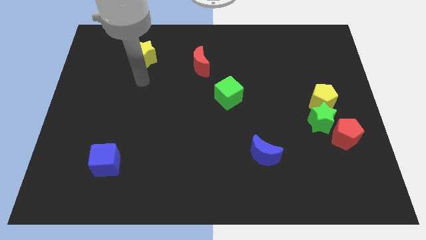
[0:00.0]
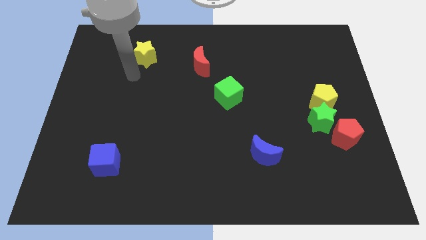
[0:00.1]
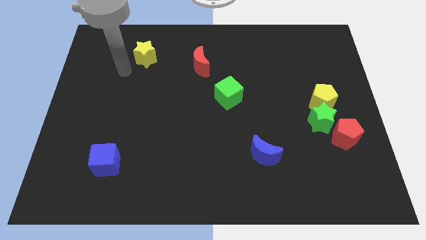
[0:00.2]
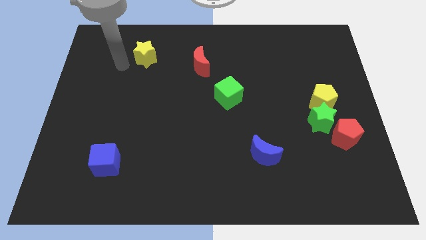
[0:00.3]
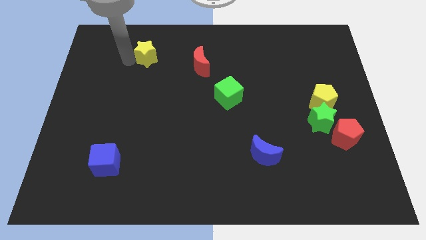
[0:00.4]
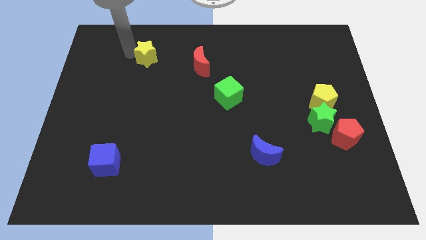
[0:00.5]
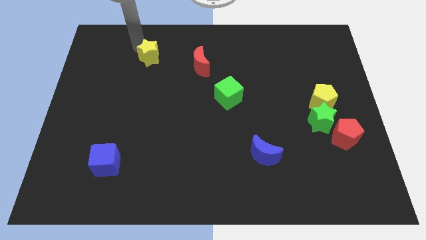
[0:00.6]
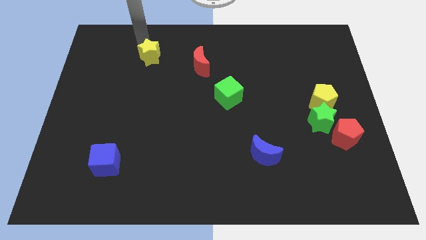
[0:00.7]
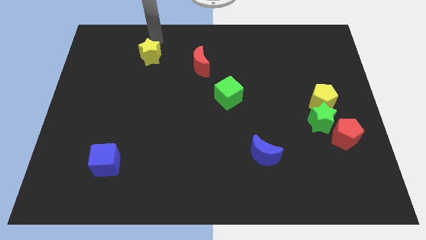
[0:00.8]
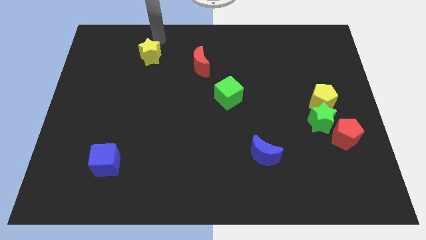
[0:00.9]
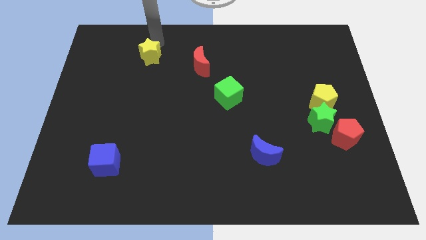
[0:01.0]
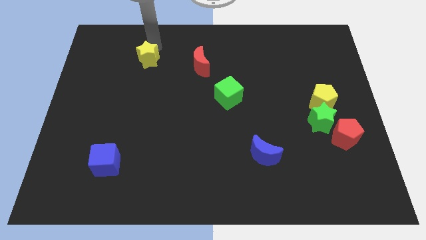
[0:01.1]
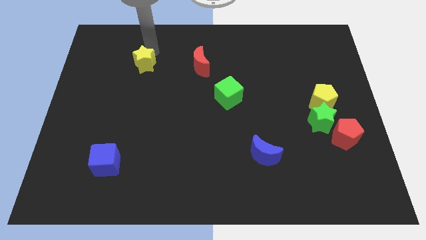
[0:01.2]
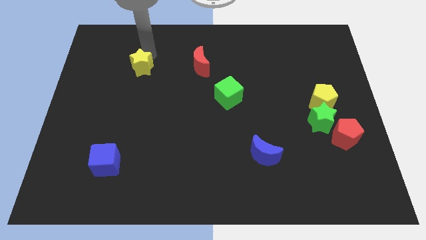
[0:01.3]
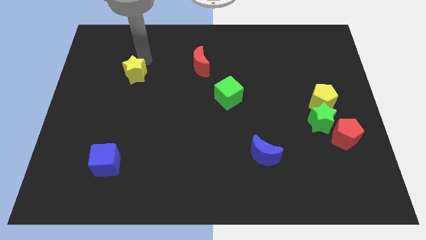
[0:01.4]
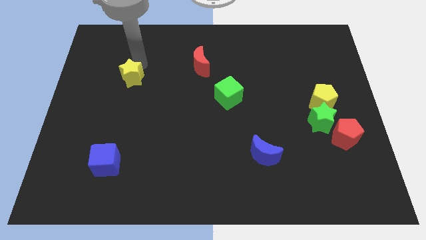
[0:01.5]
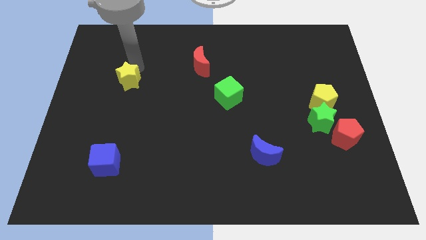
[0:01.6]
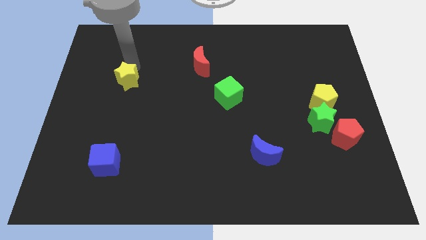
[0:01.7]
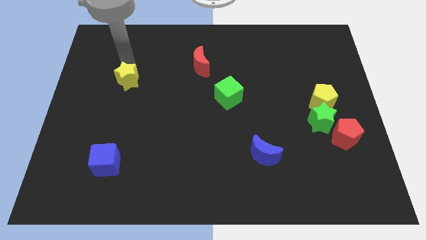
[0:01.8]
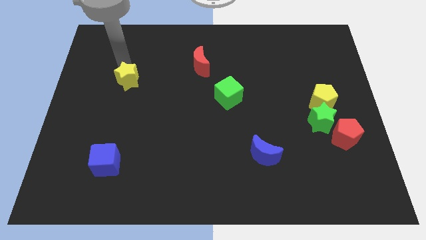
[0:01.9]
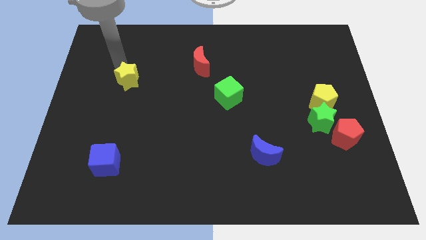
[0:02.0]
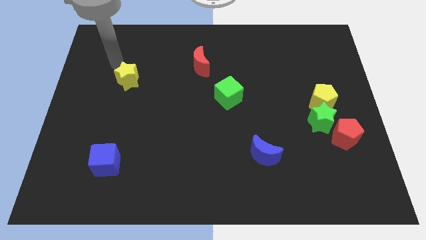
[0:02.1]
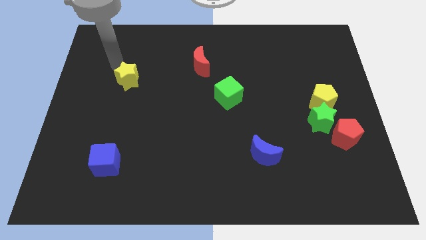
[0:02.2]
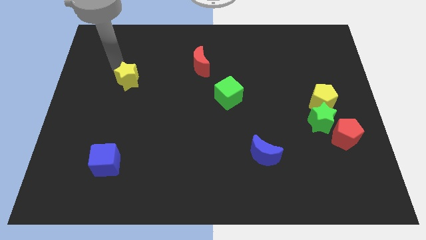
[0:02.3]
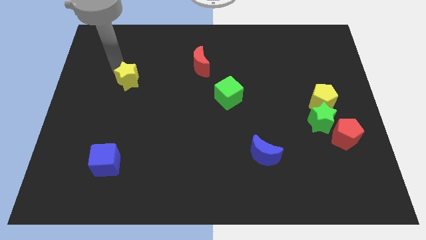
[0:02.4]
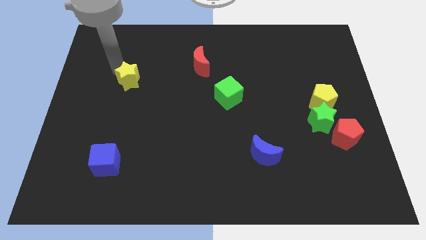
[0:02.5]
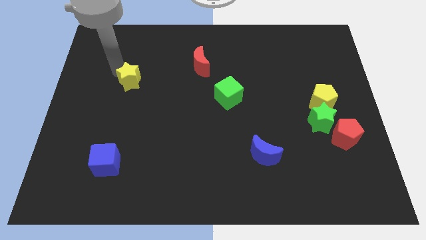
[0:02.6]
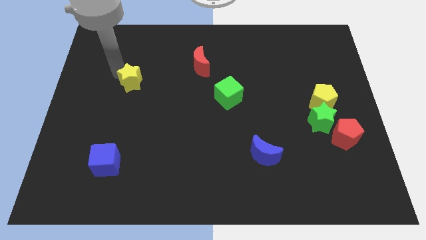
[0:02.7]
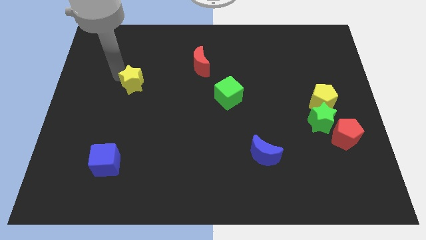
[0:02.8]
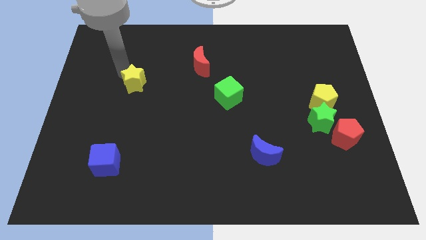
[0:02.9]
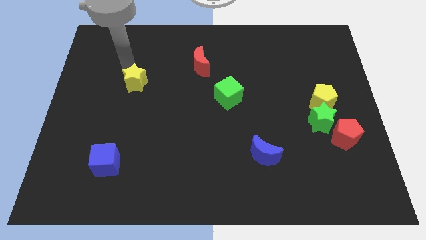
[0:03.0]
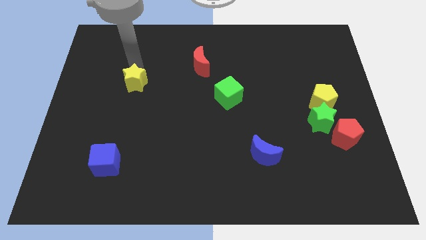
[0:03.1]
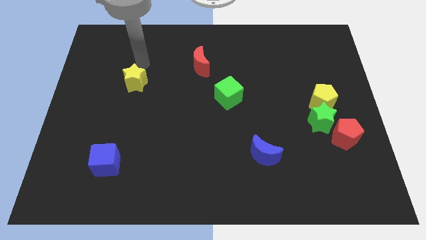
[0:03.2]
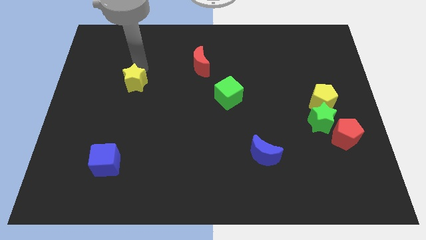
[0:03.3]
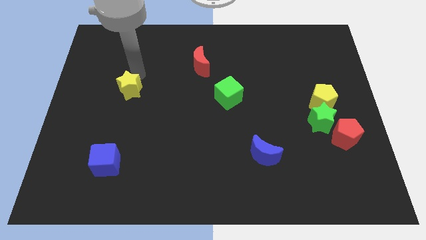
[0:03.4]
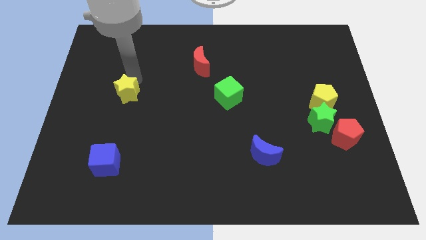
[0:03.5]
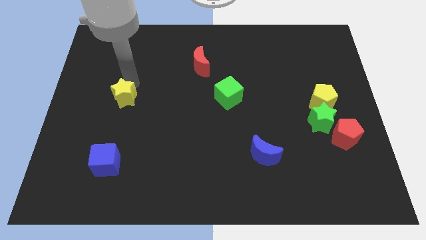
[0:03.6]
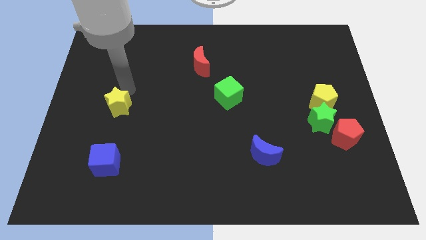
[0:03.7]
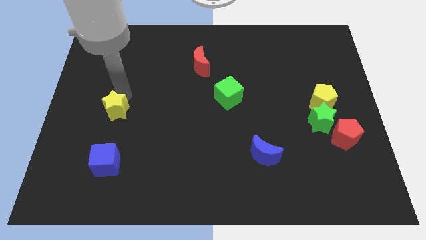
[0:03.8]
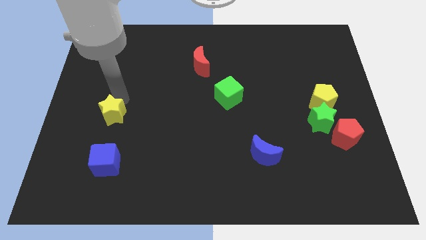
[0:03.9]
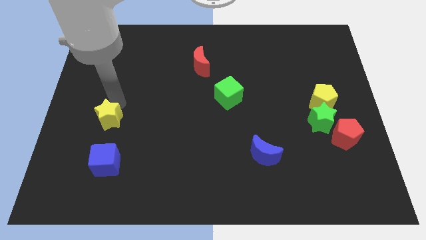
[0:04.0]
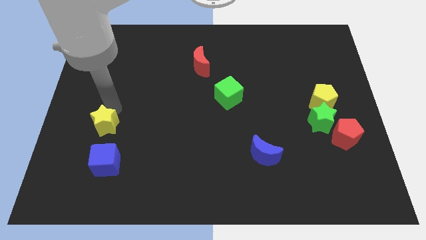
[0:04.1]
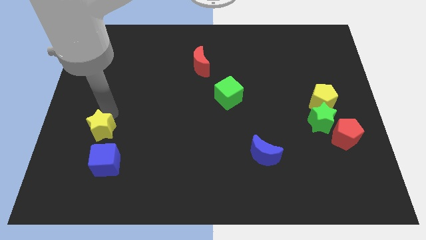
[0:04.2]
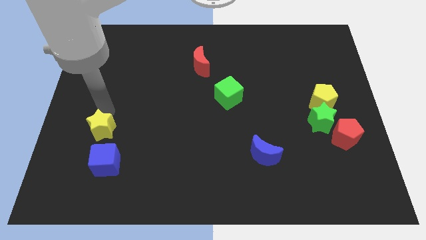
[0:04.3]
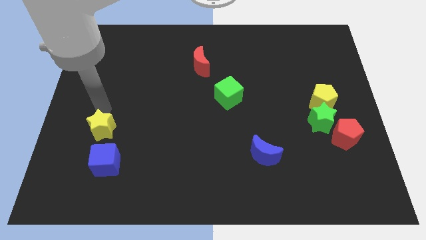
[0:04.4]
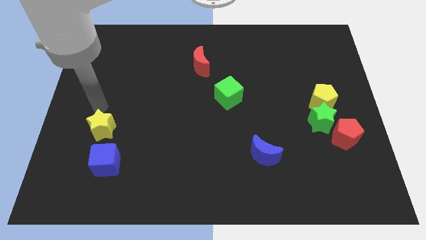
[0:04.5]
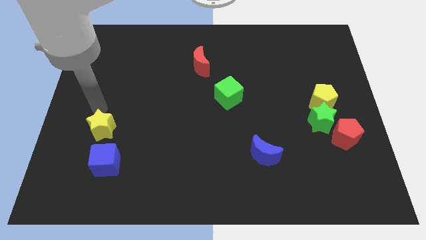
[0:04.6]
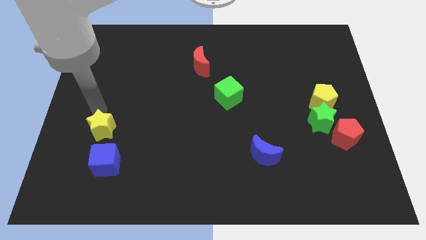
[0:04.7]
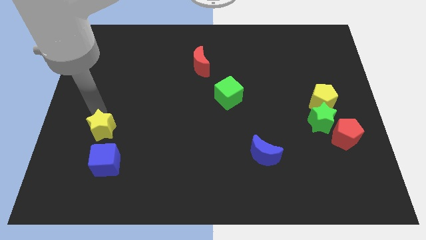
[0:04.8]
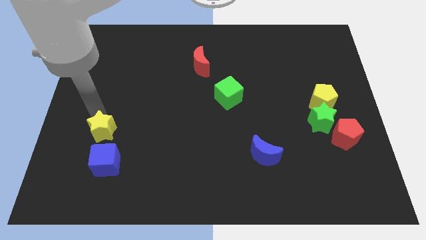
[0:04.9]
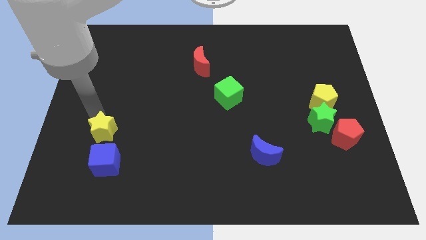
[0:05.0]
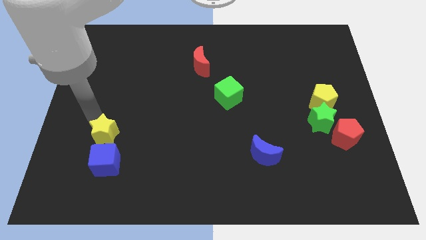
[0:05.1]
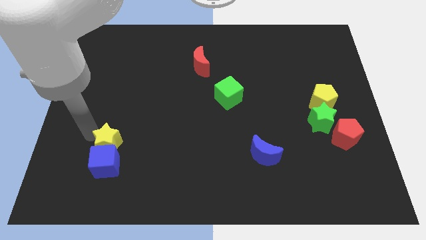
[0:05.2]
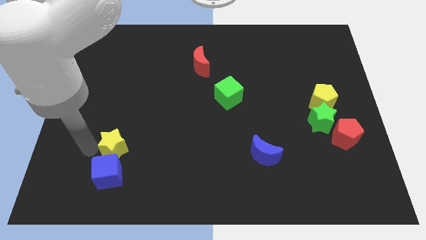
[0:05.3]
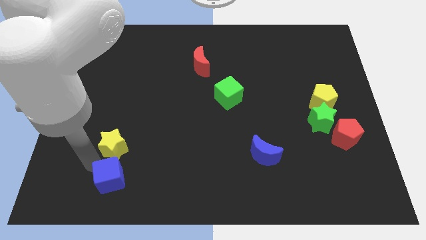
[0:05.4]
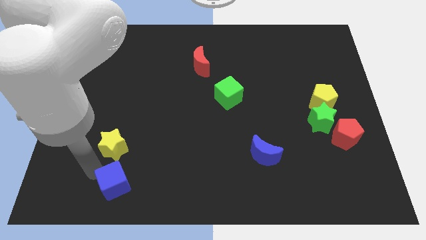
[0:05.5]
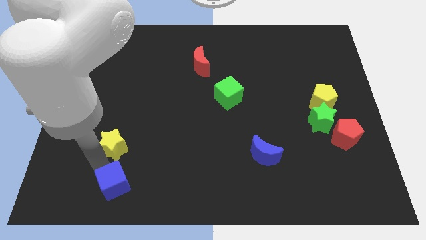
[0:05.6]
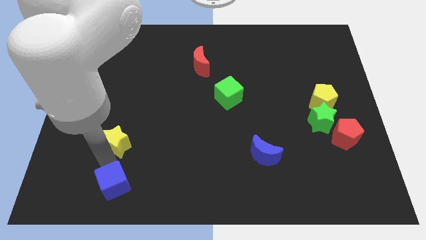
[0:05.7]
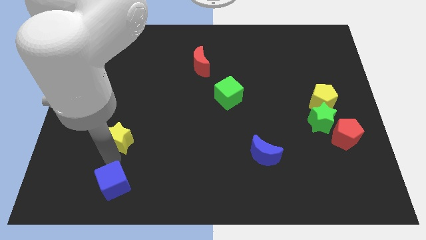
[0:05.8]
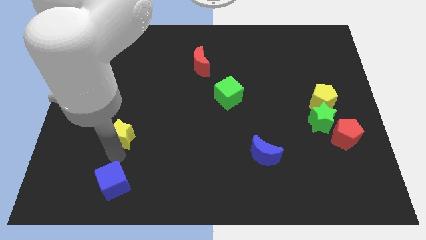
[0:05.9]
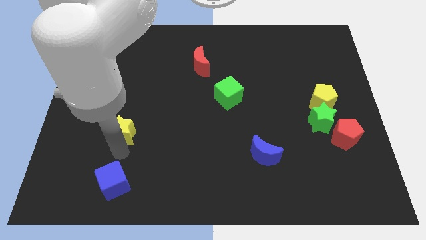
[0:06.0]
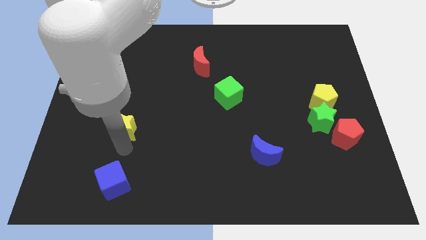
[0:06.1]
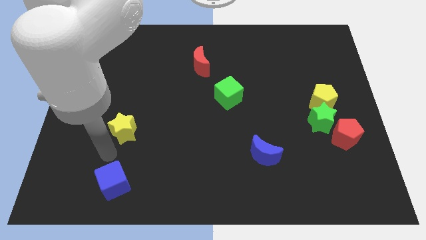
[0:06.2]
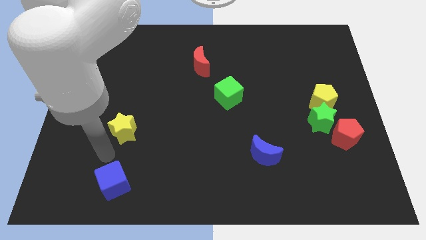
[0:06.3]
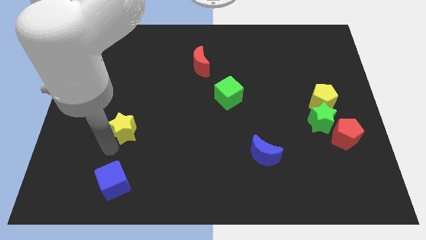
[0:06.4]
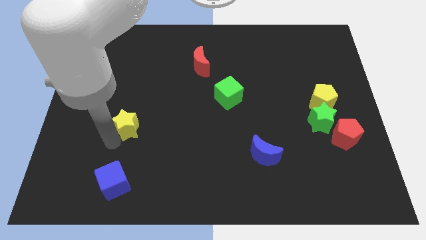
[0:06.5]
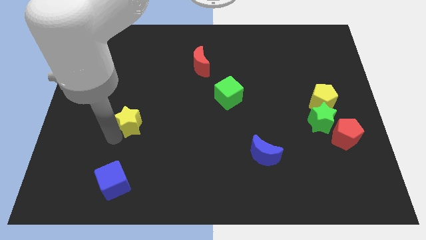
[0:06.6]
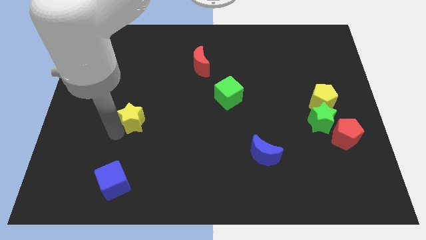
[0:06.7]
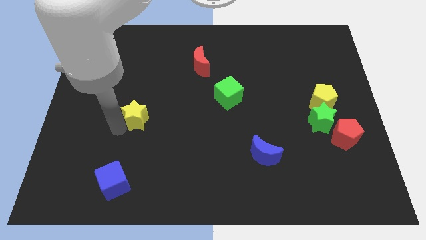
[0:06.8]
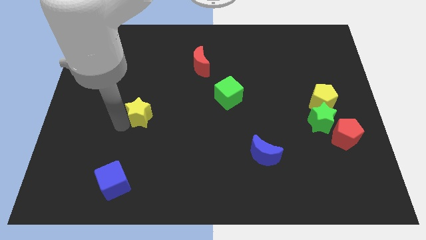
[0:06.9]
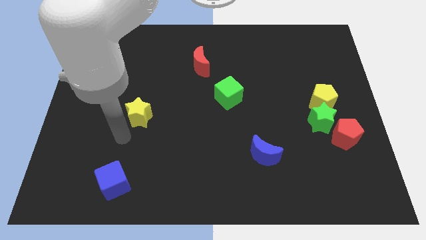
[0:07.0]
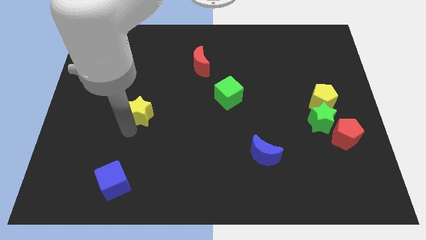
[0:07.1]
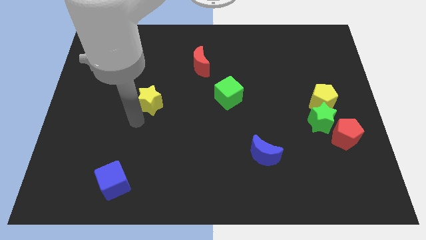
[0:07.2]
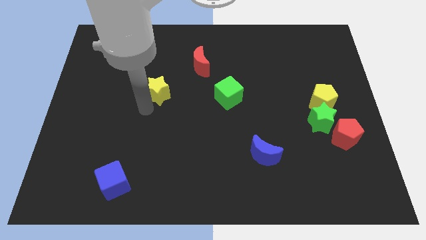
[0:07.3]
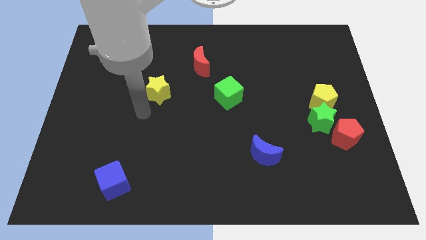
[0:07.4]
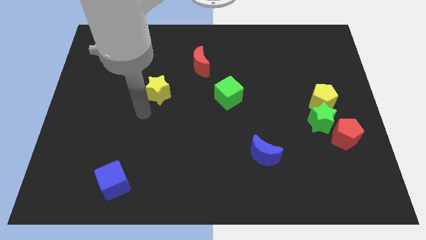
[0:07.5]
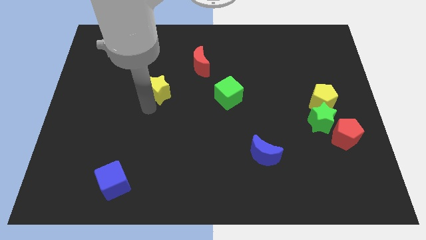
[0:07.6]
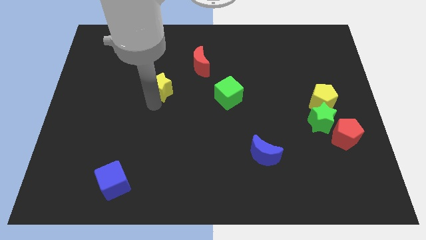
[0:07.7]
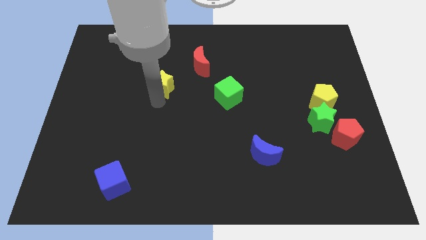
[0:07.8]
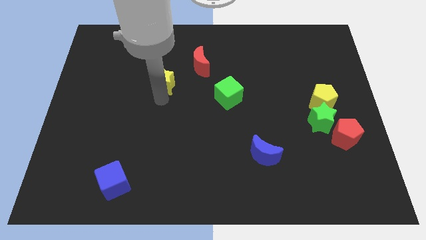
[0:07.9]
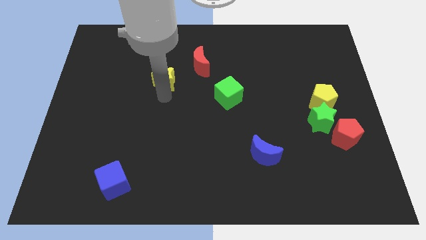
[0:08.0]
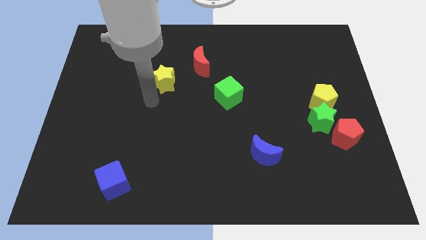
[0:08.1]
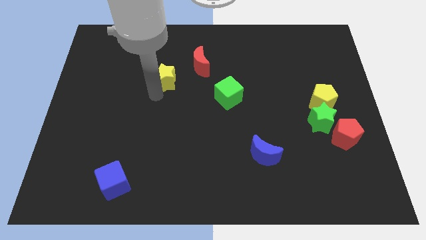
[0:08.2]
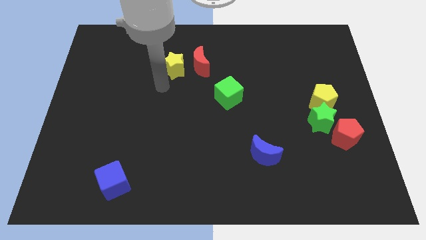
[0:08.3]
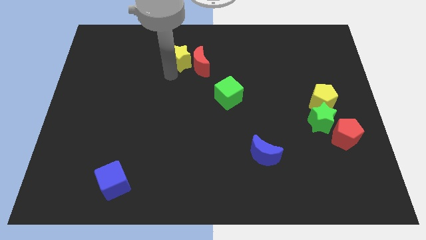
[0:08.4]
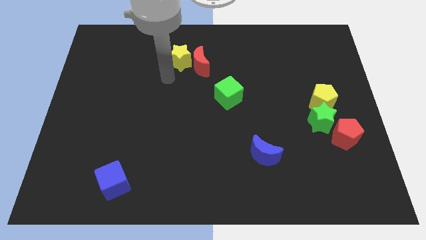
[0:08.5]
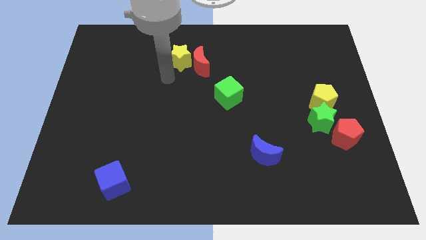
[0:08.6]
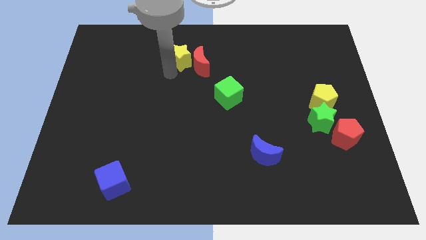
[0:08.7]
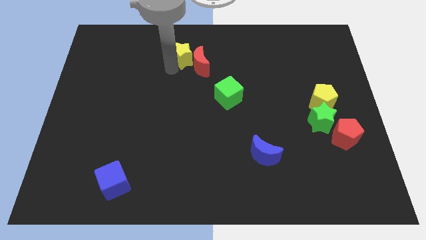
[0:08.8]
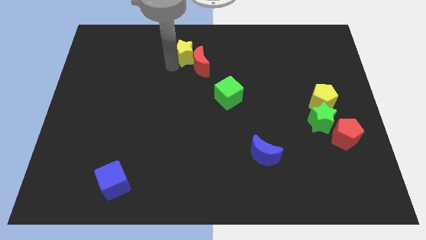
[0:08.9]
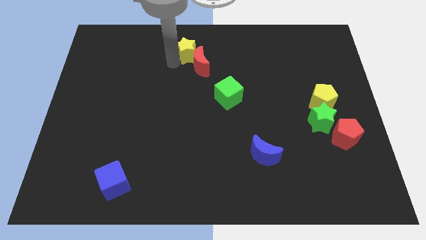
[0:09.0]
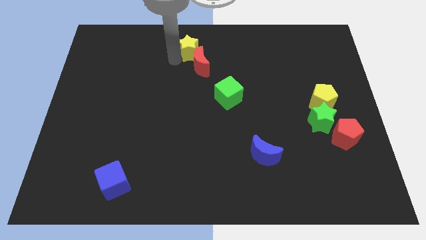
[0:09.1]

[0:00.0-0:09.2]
put the yellow star to the top side
